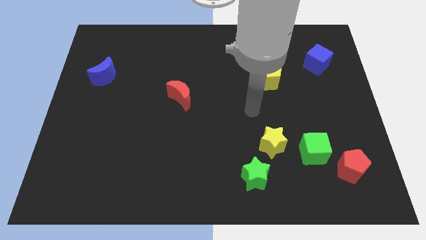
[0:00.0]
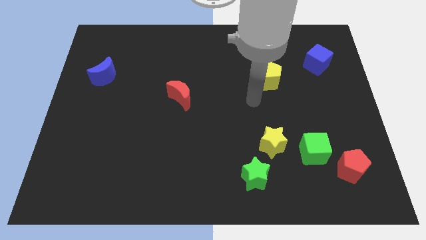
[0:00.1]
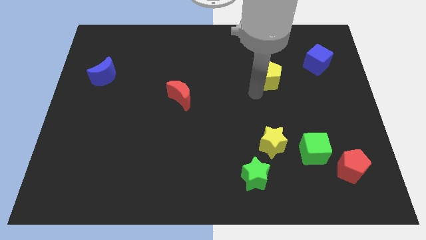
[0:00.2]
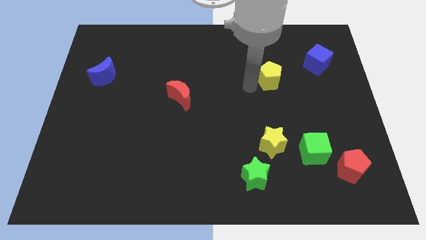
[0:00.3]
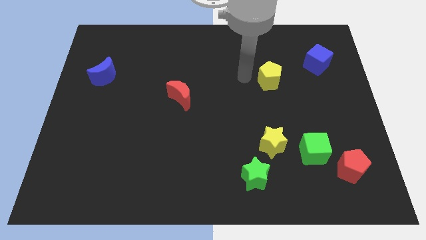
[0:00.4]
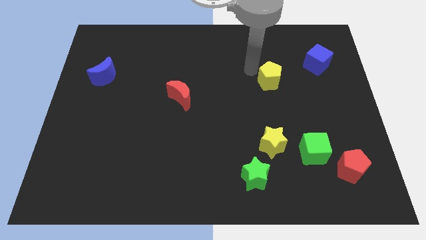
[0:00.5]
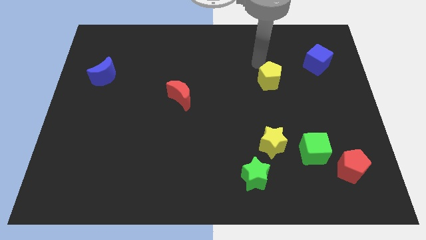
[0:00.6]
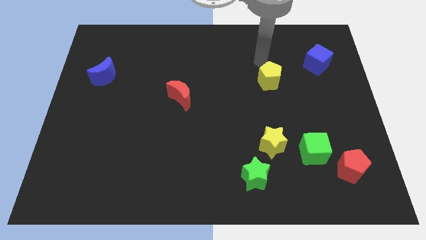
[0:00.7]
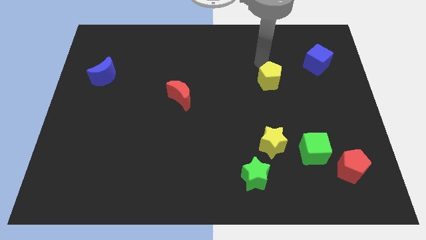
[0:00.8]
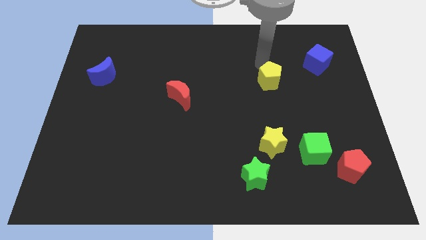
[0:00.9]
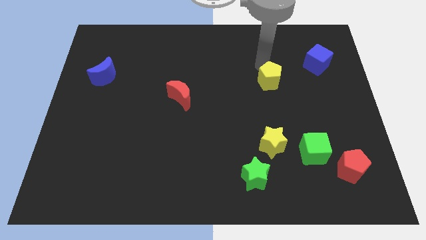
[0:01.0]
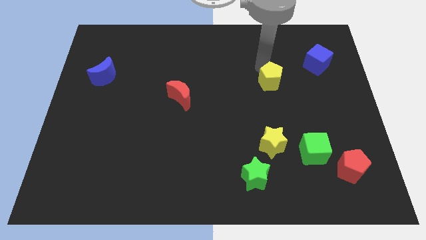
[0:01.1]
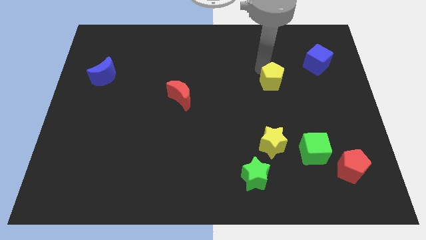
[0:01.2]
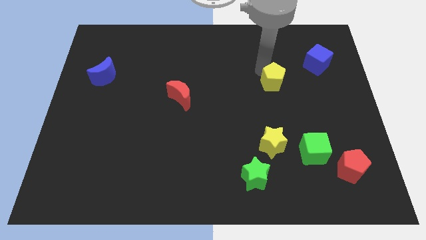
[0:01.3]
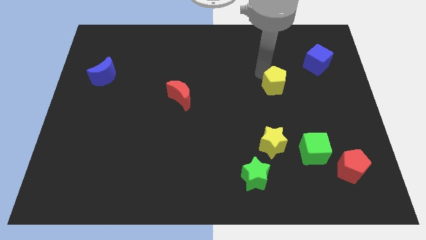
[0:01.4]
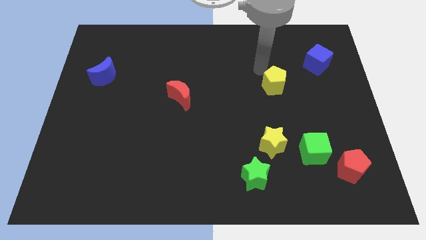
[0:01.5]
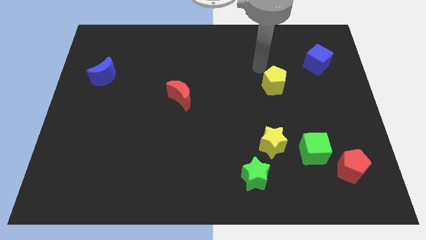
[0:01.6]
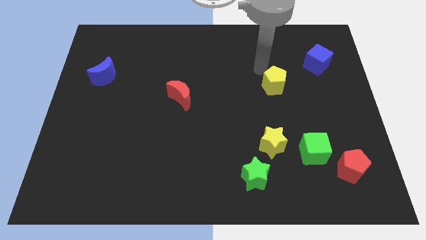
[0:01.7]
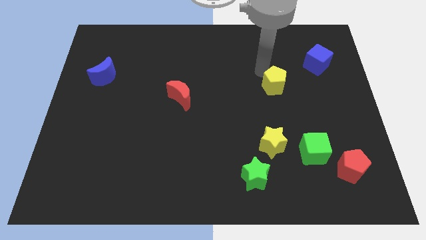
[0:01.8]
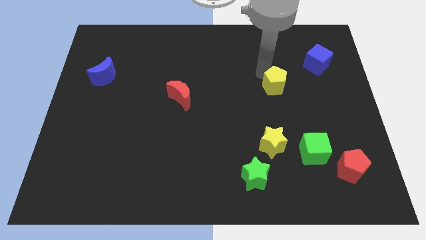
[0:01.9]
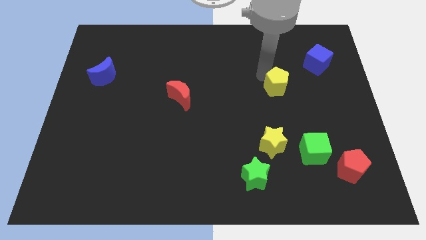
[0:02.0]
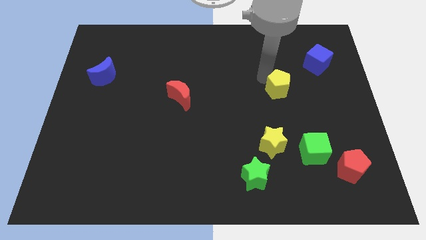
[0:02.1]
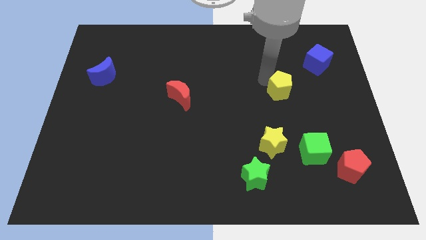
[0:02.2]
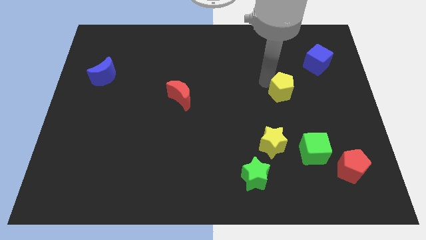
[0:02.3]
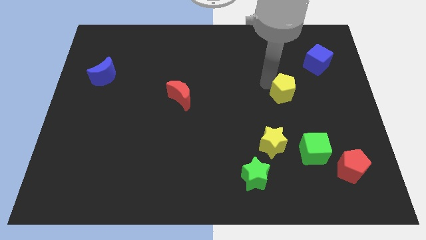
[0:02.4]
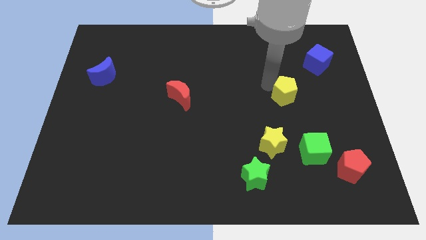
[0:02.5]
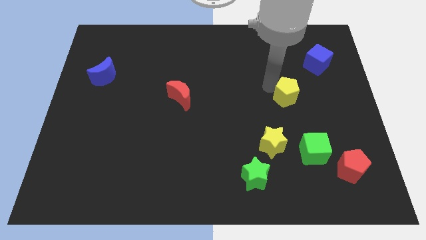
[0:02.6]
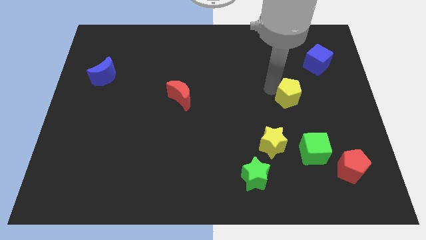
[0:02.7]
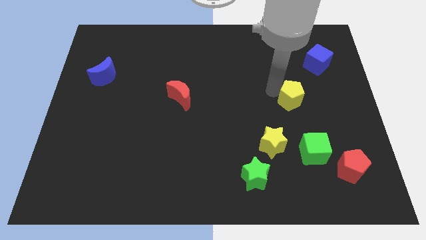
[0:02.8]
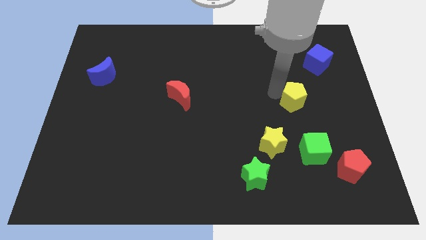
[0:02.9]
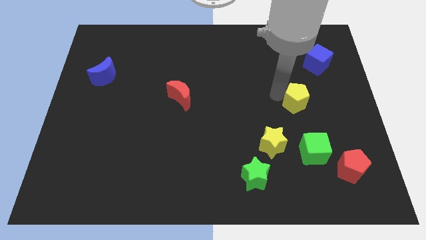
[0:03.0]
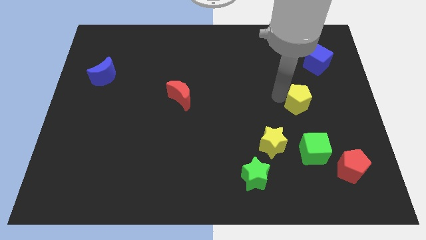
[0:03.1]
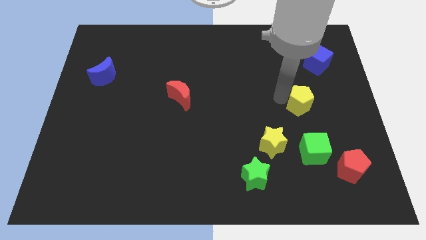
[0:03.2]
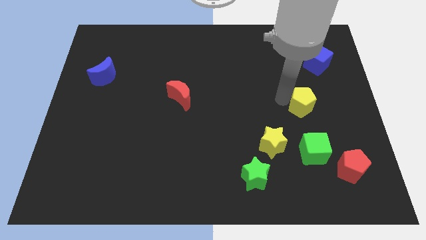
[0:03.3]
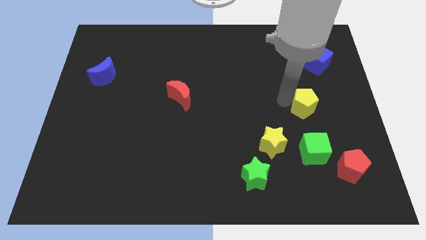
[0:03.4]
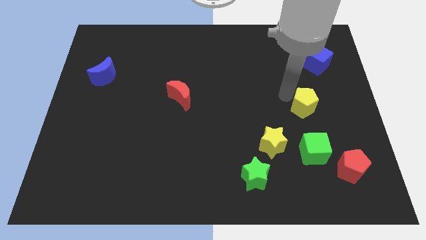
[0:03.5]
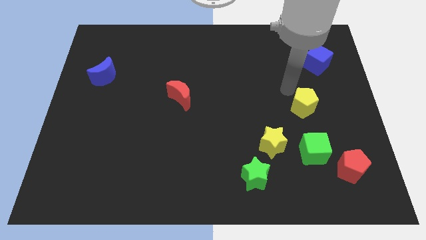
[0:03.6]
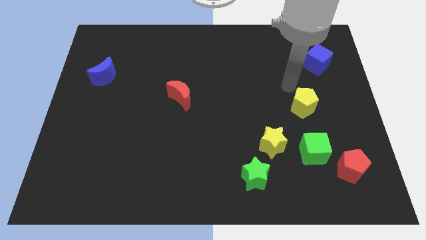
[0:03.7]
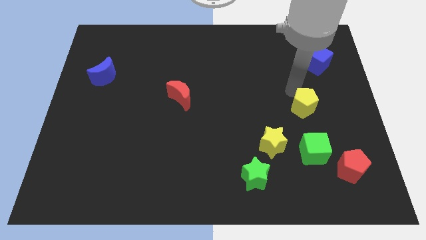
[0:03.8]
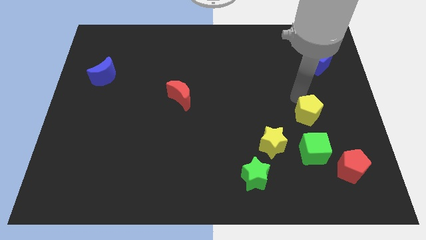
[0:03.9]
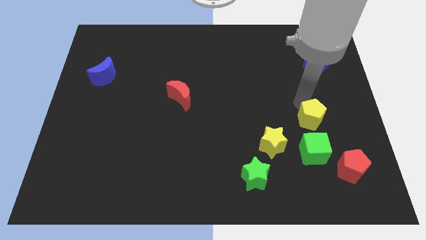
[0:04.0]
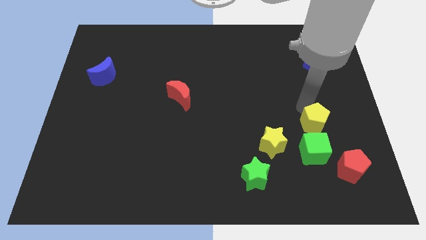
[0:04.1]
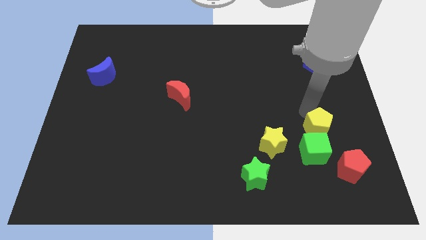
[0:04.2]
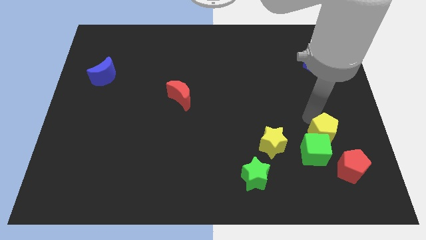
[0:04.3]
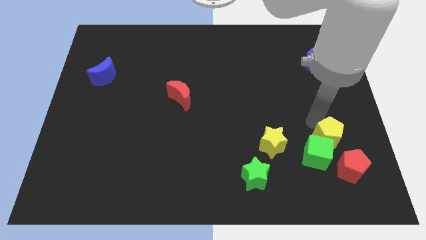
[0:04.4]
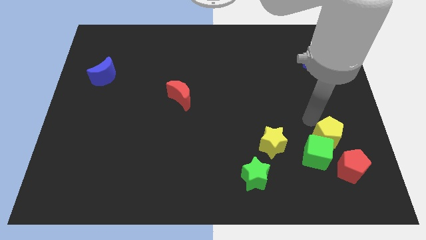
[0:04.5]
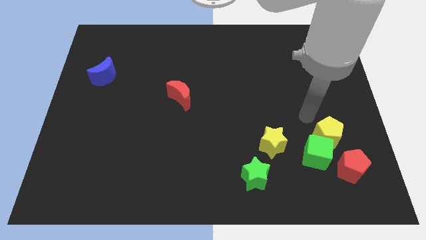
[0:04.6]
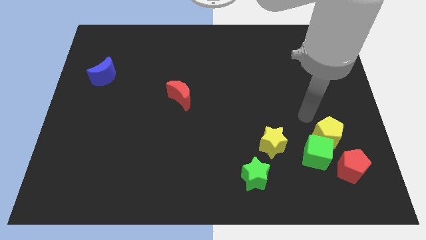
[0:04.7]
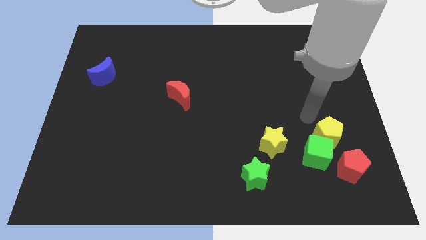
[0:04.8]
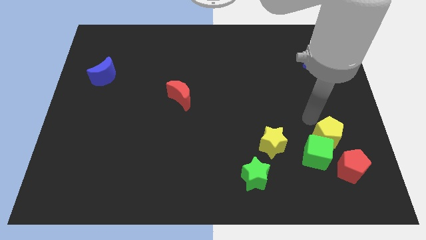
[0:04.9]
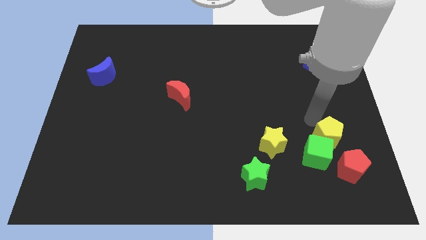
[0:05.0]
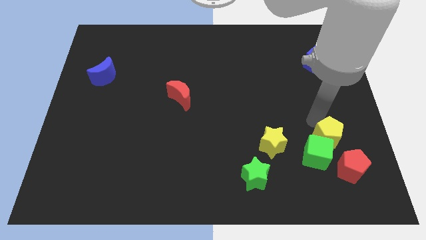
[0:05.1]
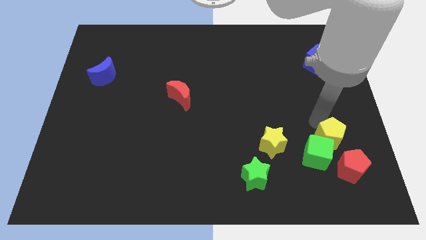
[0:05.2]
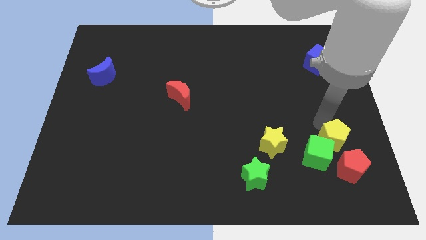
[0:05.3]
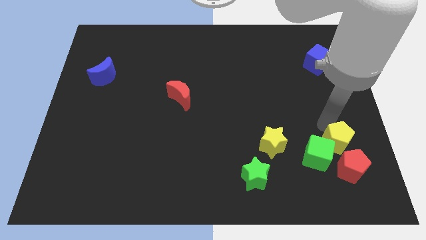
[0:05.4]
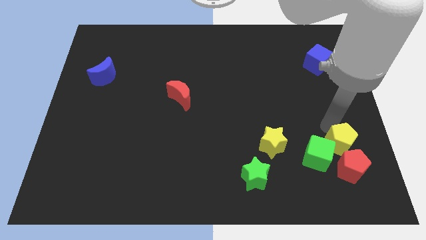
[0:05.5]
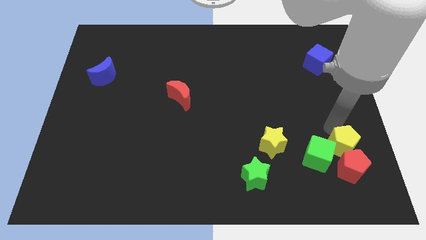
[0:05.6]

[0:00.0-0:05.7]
put the yellow pentagon close to the red pentagon

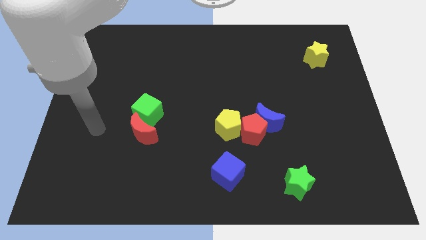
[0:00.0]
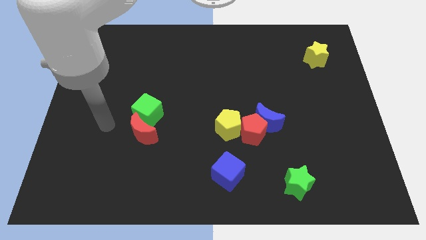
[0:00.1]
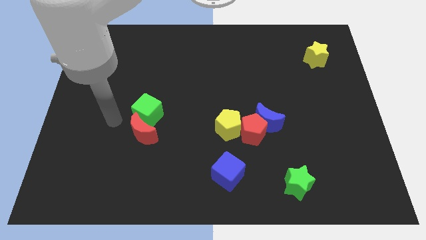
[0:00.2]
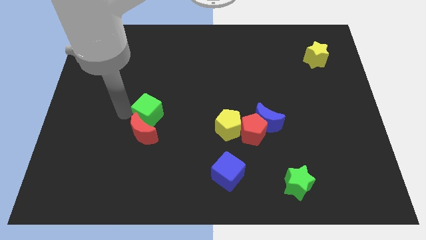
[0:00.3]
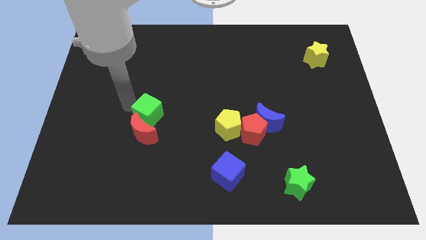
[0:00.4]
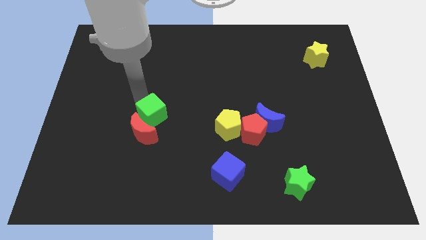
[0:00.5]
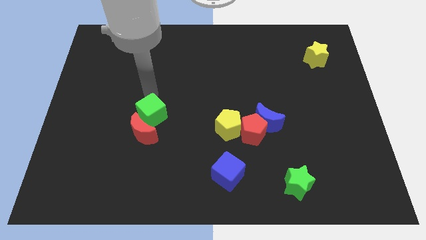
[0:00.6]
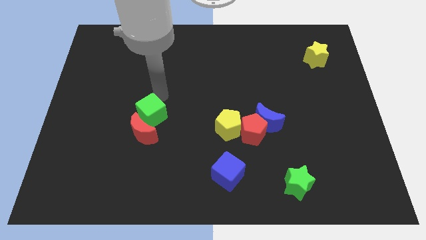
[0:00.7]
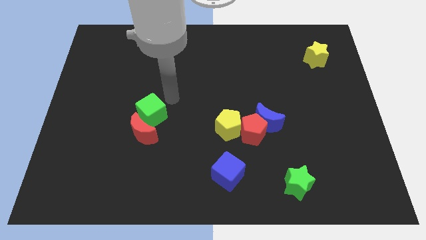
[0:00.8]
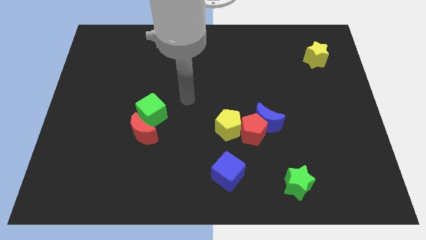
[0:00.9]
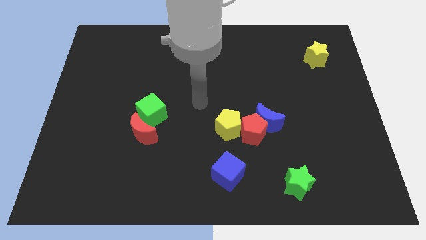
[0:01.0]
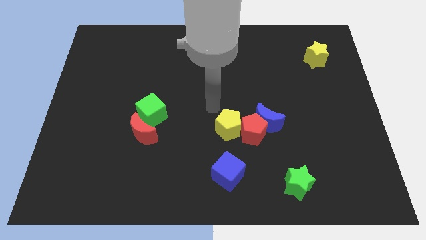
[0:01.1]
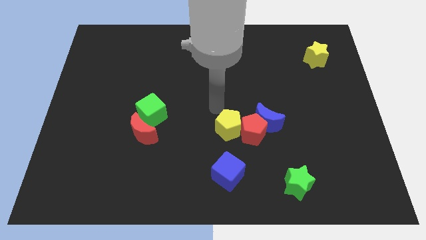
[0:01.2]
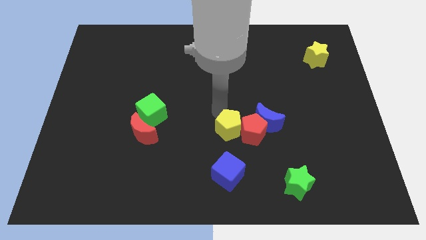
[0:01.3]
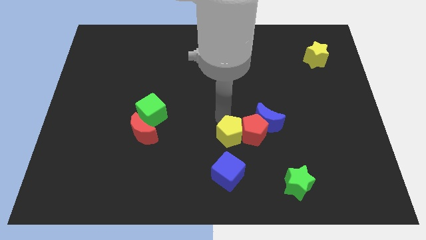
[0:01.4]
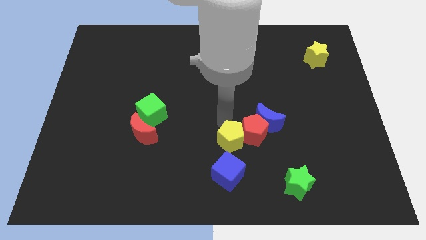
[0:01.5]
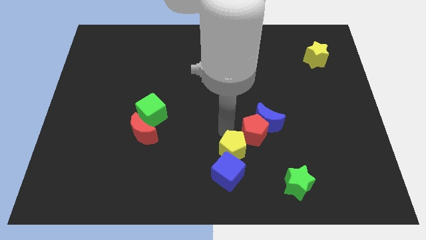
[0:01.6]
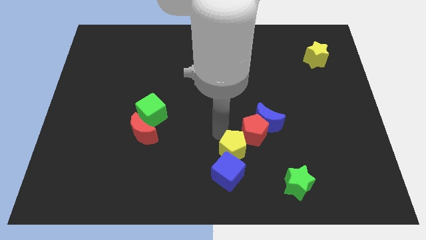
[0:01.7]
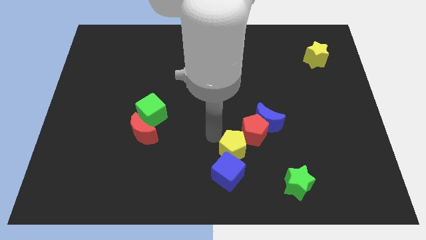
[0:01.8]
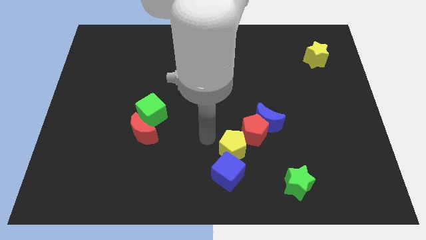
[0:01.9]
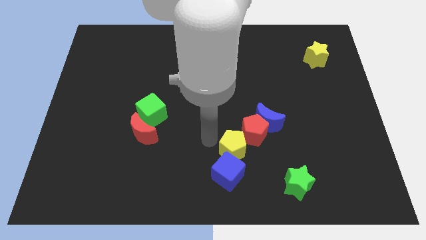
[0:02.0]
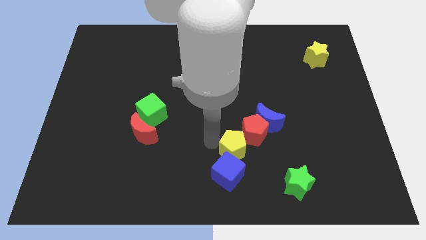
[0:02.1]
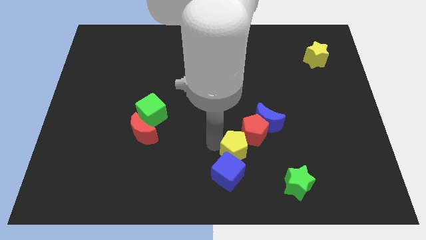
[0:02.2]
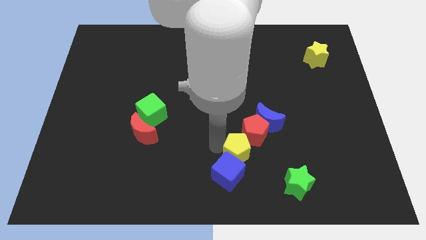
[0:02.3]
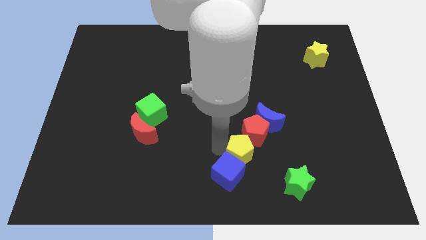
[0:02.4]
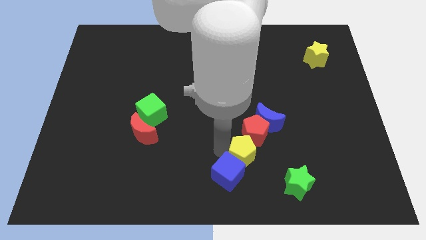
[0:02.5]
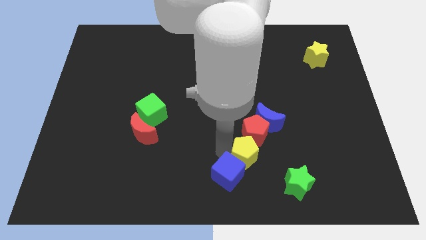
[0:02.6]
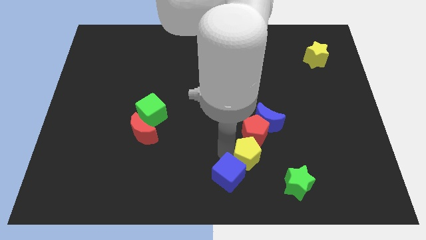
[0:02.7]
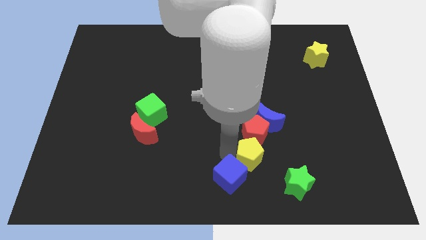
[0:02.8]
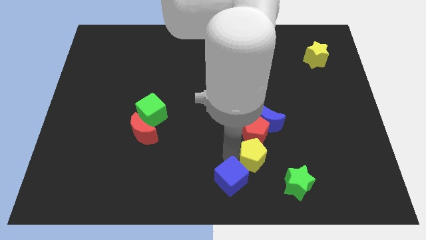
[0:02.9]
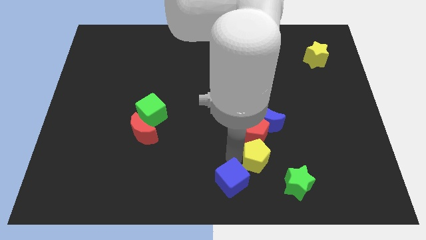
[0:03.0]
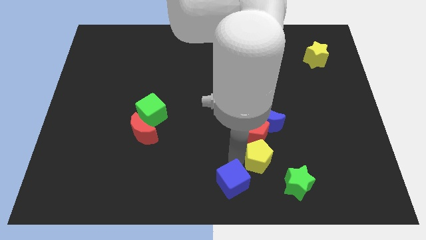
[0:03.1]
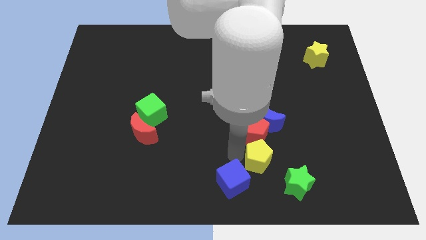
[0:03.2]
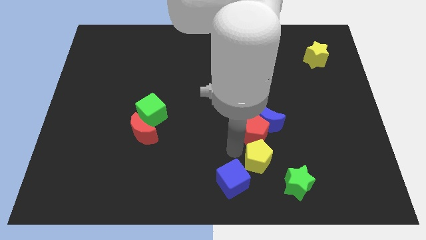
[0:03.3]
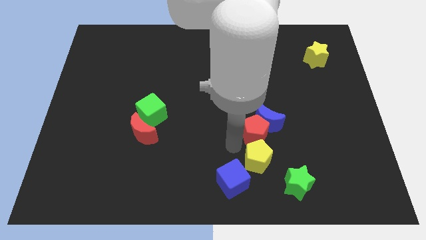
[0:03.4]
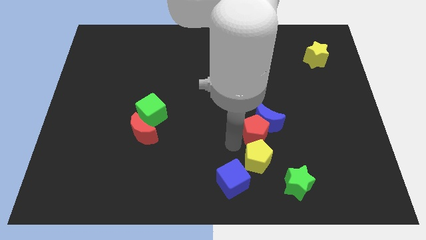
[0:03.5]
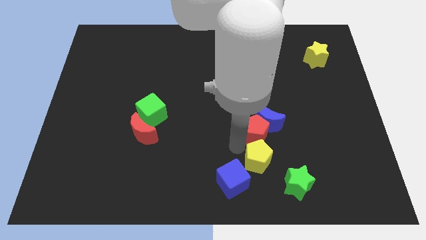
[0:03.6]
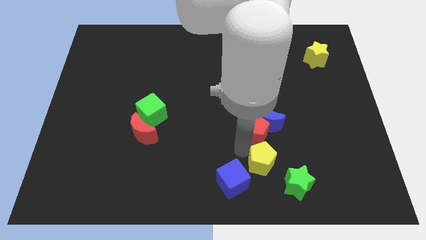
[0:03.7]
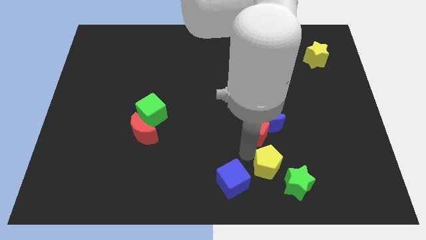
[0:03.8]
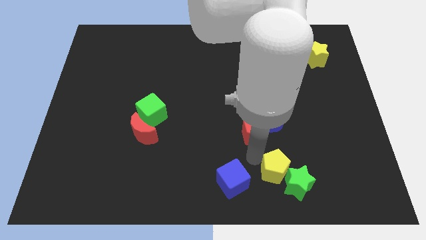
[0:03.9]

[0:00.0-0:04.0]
slide the yellow pentagon to the green star
